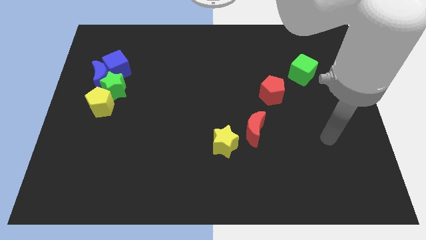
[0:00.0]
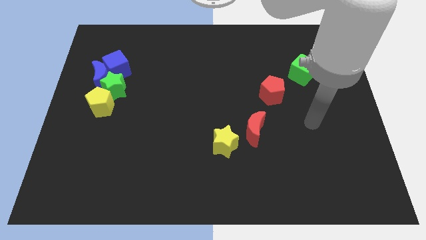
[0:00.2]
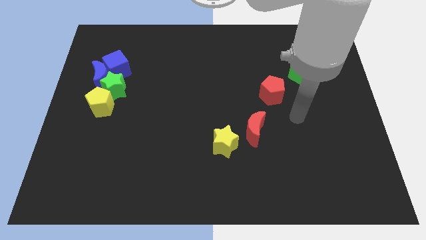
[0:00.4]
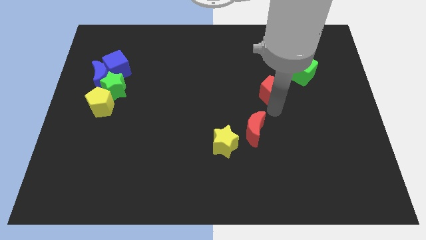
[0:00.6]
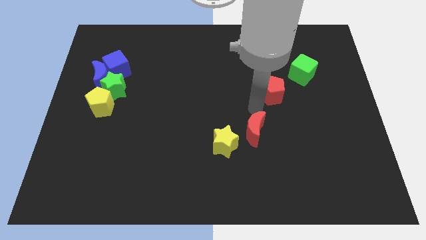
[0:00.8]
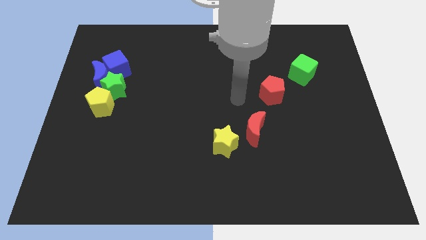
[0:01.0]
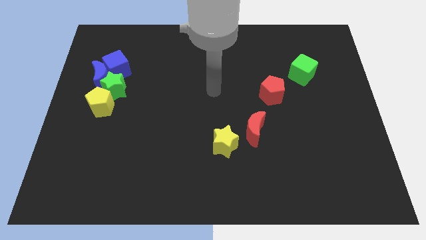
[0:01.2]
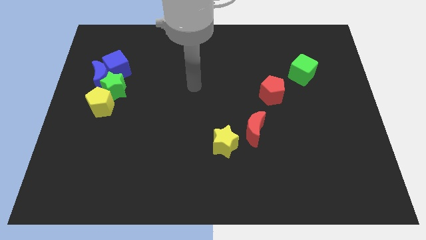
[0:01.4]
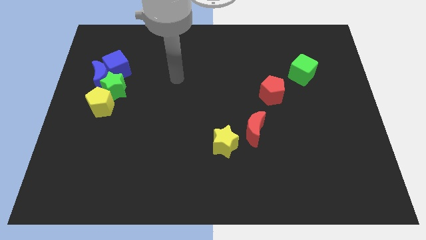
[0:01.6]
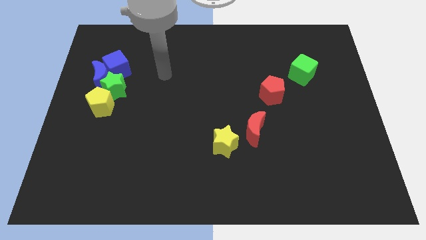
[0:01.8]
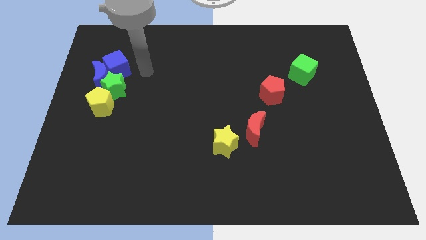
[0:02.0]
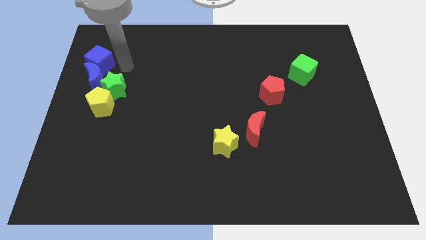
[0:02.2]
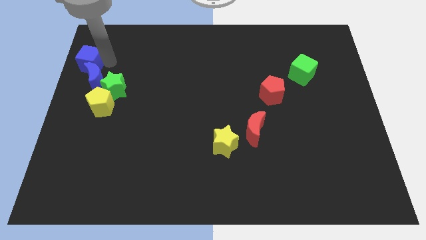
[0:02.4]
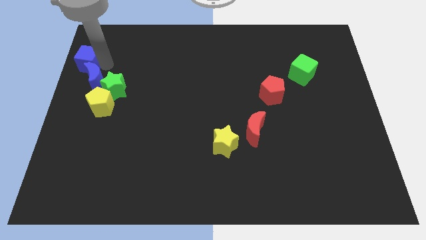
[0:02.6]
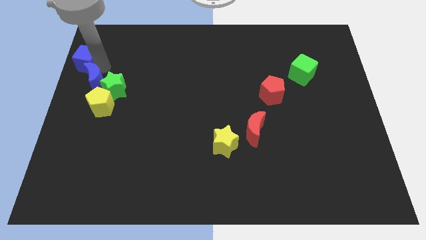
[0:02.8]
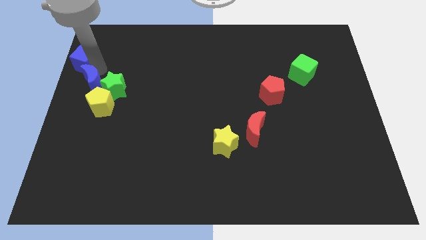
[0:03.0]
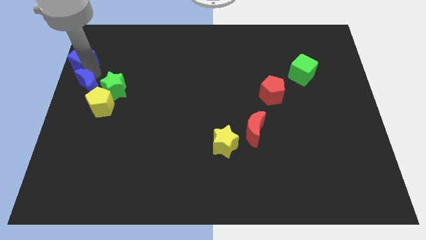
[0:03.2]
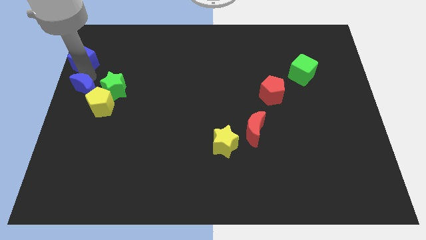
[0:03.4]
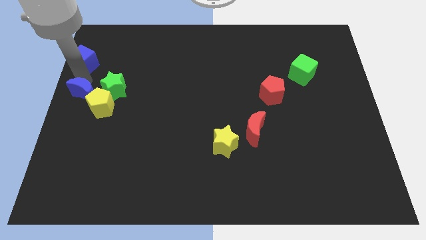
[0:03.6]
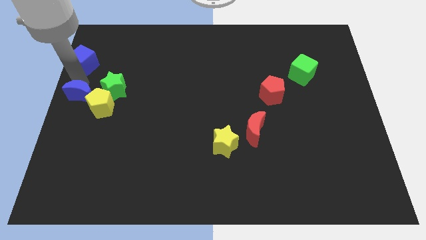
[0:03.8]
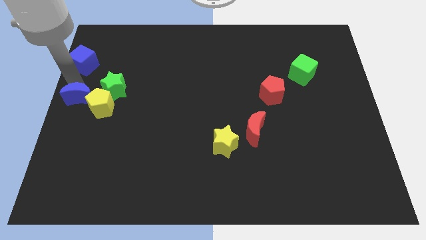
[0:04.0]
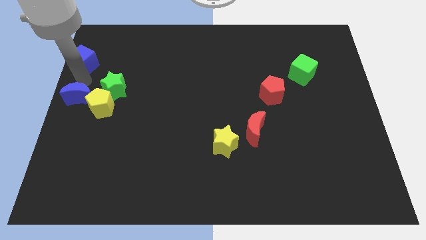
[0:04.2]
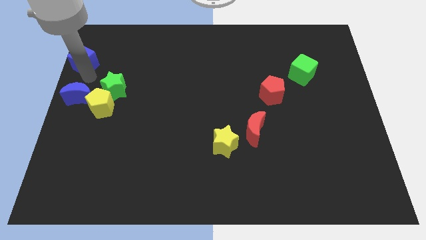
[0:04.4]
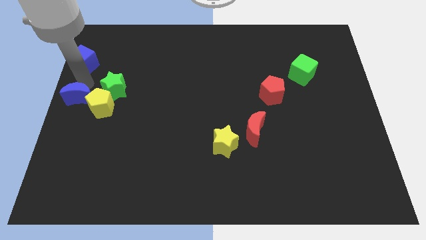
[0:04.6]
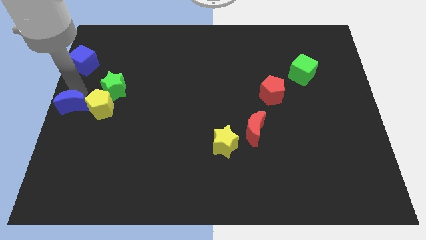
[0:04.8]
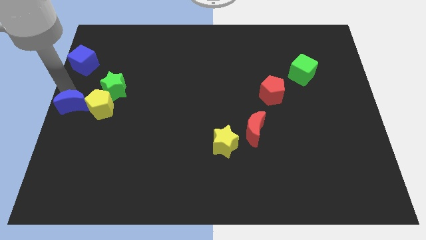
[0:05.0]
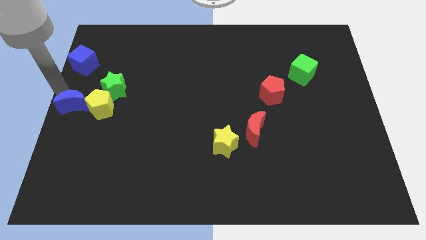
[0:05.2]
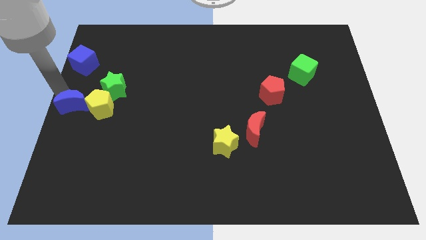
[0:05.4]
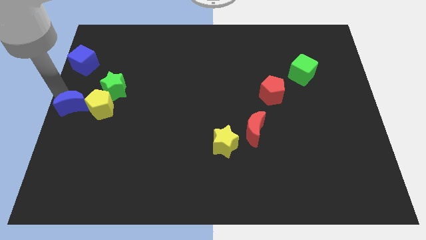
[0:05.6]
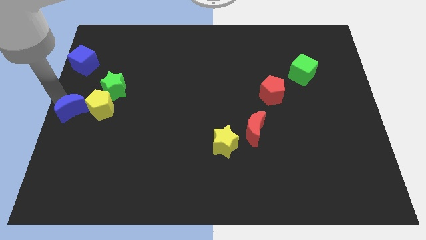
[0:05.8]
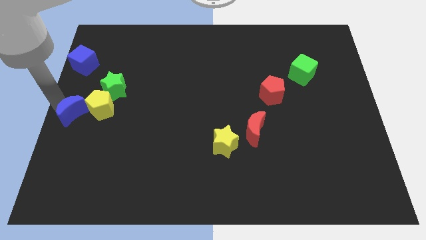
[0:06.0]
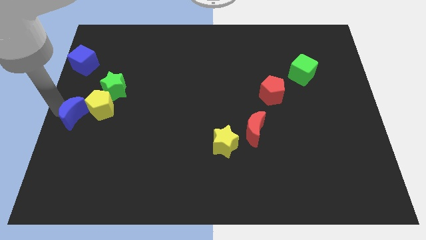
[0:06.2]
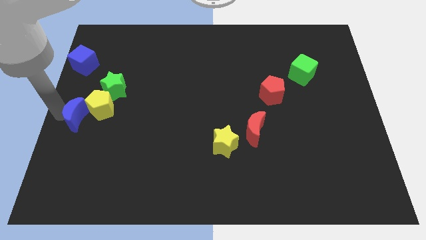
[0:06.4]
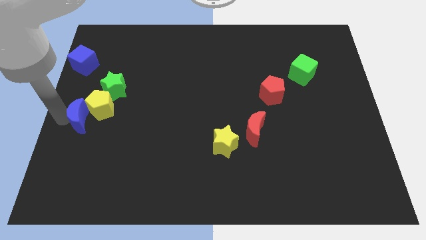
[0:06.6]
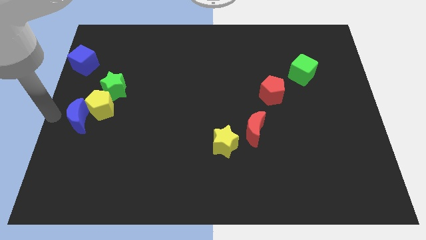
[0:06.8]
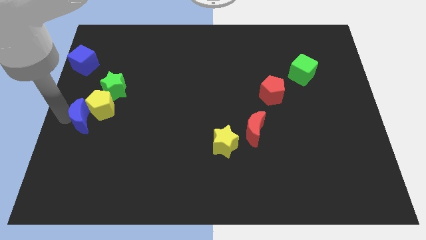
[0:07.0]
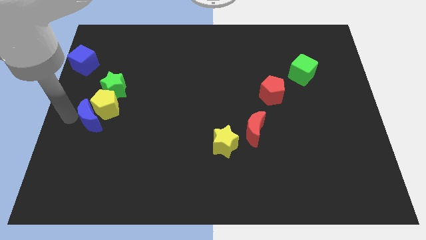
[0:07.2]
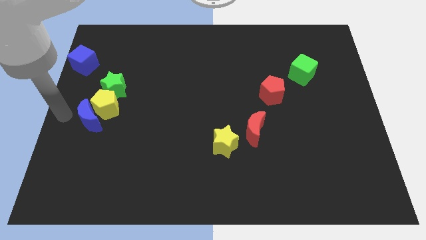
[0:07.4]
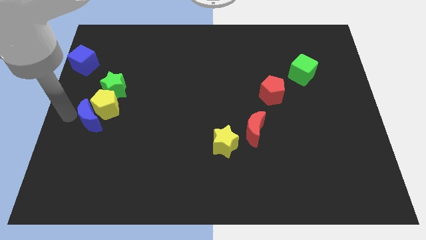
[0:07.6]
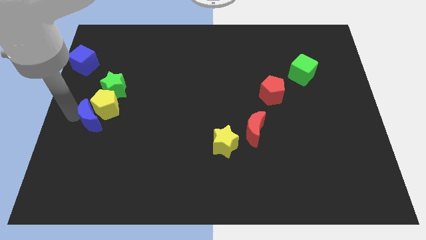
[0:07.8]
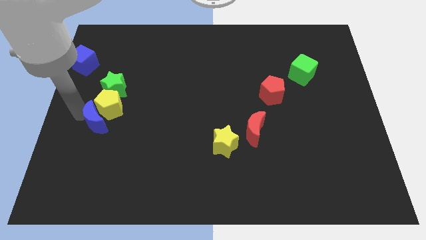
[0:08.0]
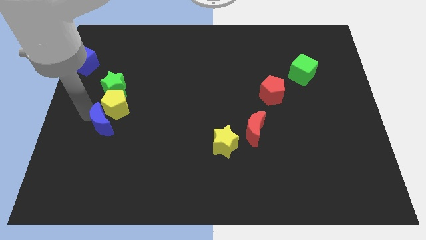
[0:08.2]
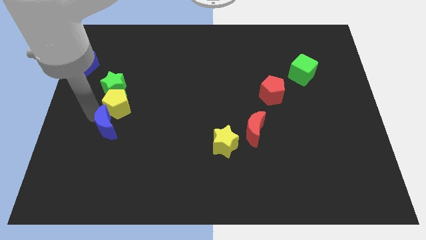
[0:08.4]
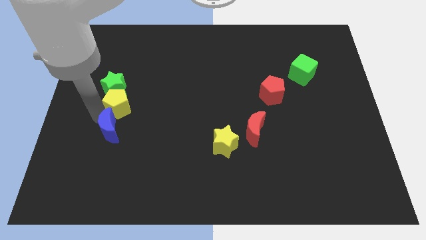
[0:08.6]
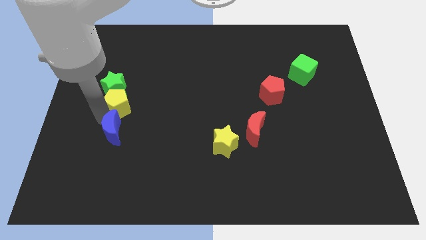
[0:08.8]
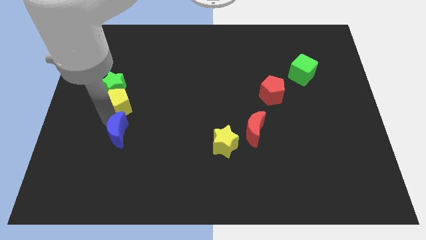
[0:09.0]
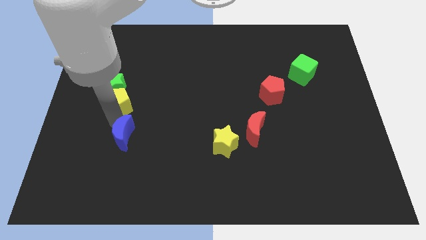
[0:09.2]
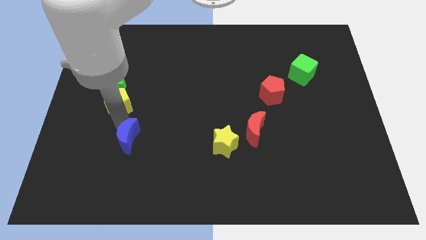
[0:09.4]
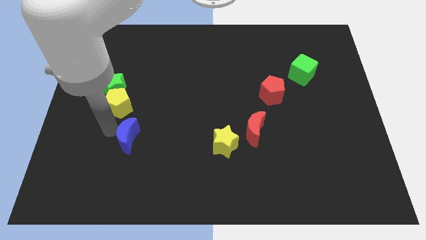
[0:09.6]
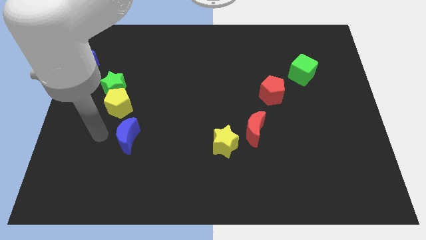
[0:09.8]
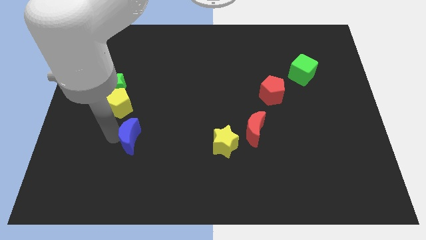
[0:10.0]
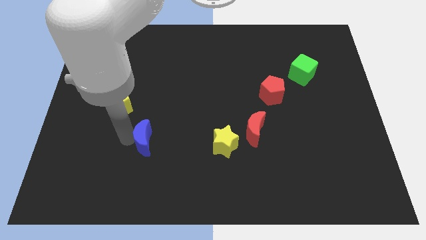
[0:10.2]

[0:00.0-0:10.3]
move the blue moon diagonally downwards and to the right

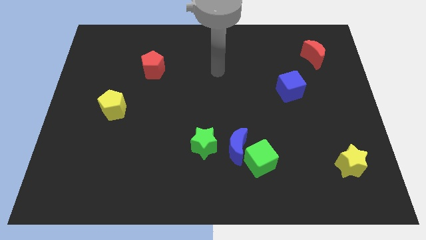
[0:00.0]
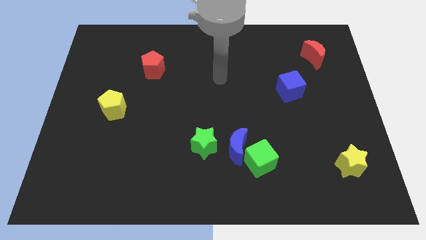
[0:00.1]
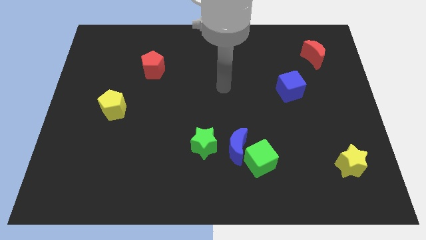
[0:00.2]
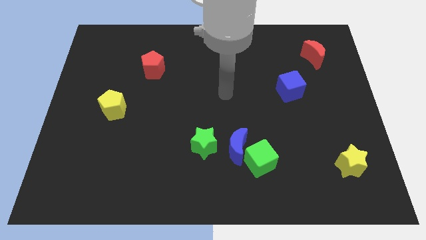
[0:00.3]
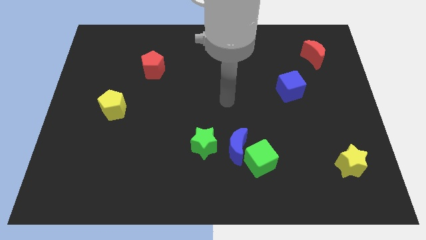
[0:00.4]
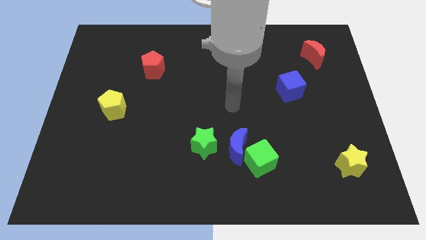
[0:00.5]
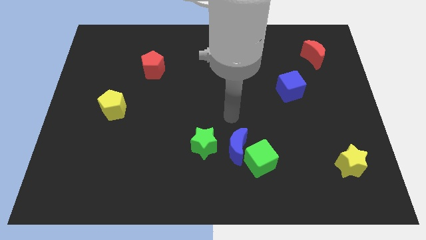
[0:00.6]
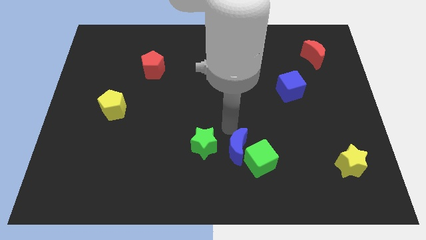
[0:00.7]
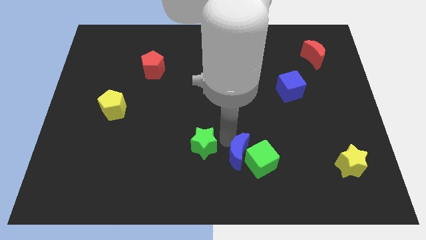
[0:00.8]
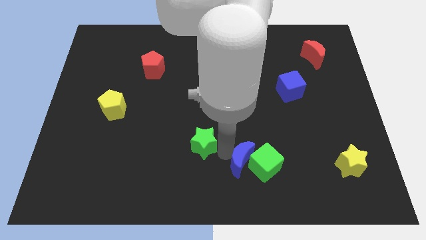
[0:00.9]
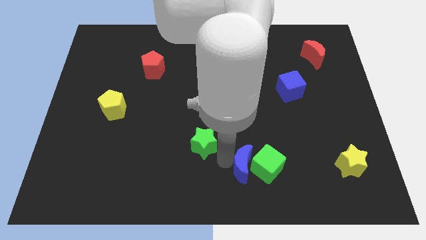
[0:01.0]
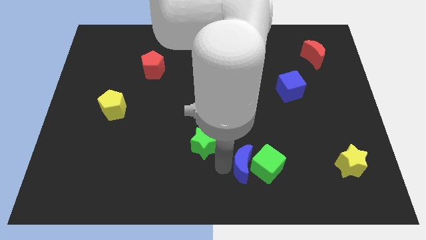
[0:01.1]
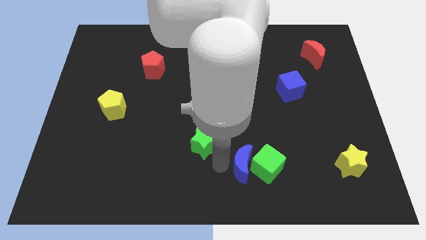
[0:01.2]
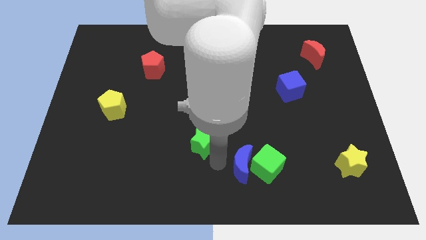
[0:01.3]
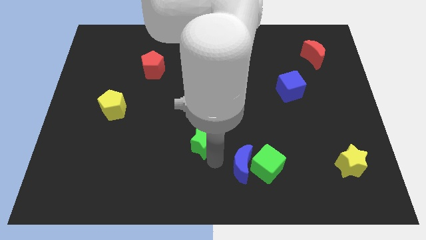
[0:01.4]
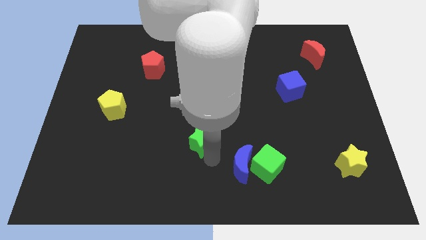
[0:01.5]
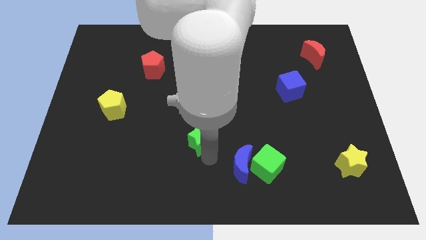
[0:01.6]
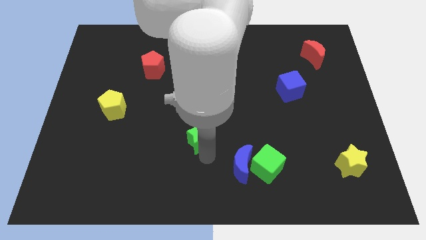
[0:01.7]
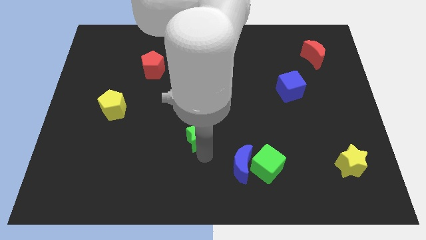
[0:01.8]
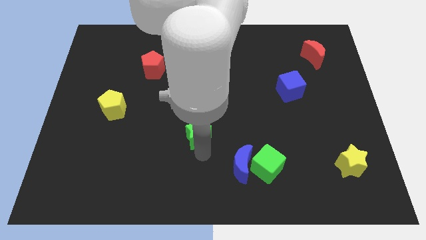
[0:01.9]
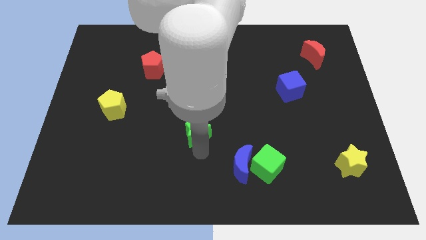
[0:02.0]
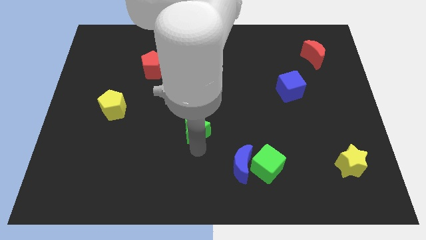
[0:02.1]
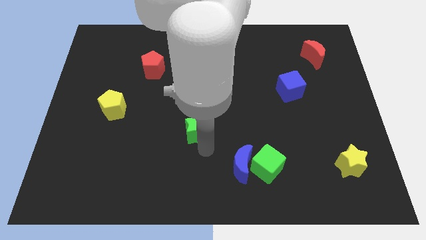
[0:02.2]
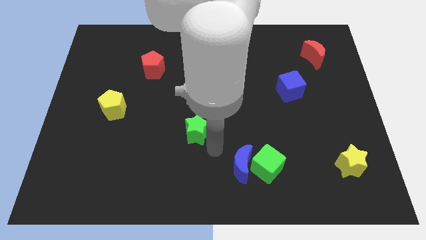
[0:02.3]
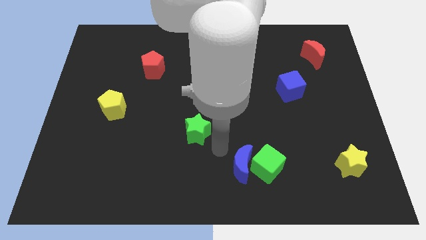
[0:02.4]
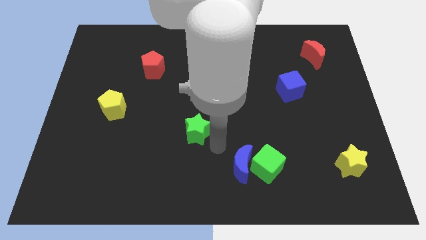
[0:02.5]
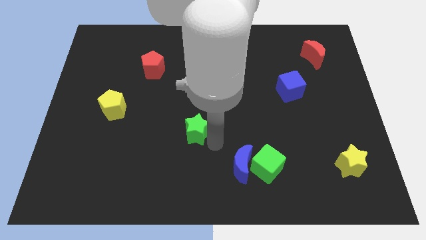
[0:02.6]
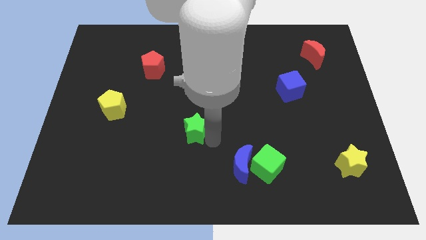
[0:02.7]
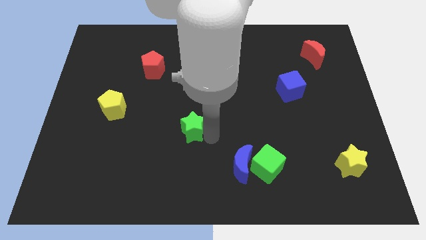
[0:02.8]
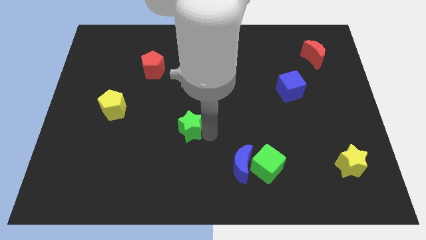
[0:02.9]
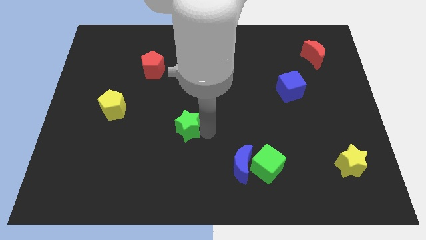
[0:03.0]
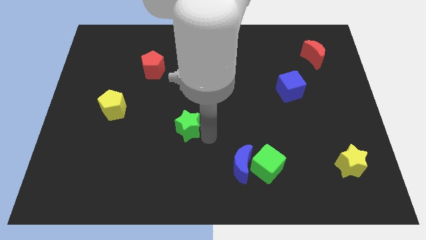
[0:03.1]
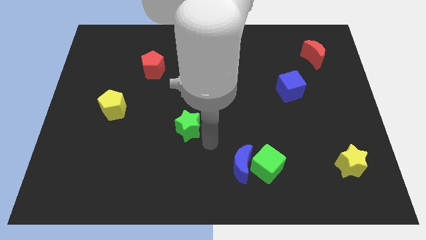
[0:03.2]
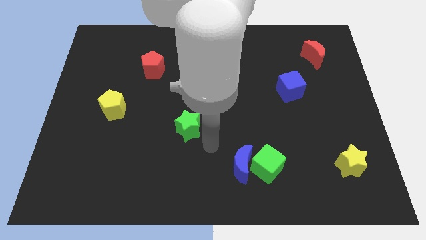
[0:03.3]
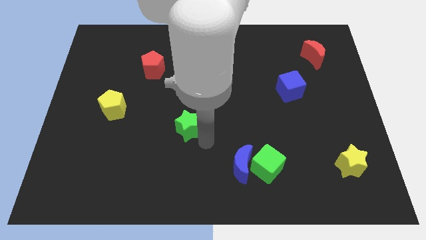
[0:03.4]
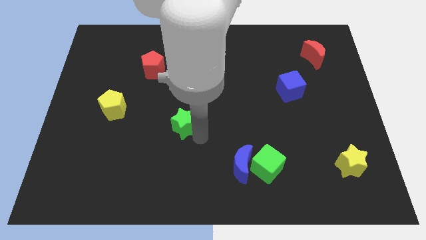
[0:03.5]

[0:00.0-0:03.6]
slightly move the green star up and then left
